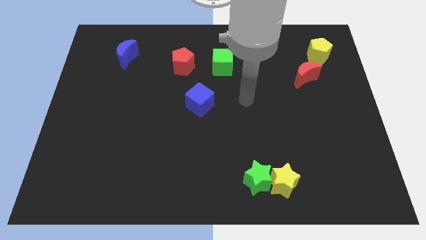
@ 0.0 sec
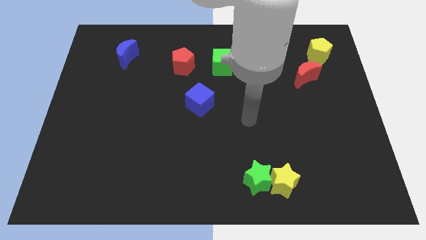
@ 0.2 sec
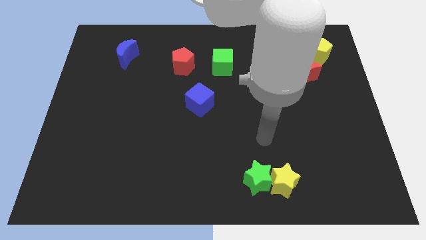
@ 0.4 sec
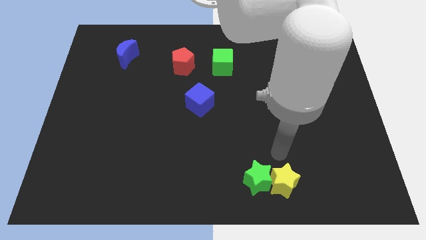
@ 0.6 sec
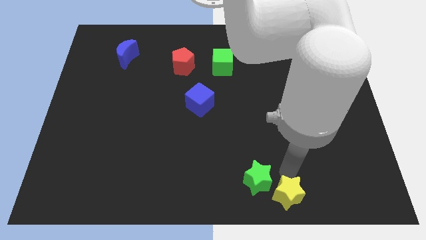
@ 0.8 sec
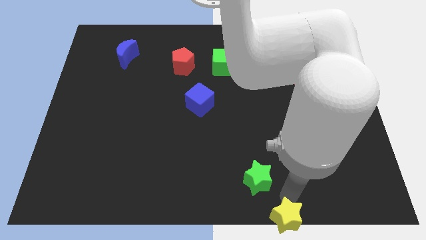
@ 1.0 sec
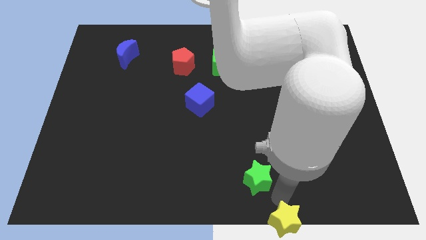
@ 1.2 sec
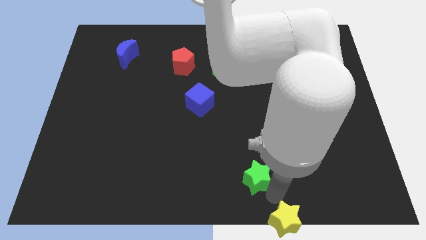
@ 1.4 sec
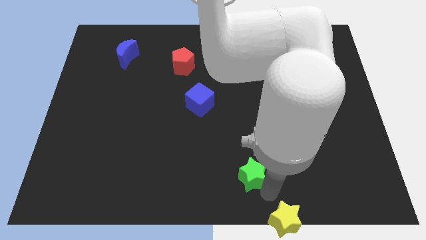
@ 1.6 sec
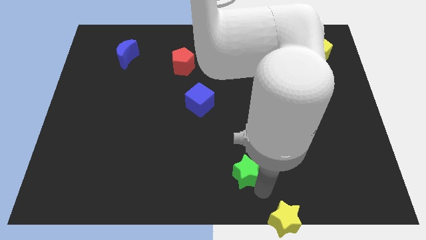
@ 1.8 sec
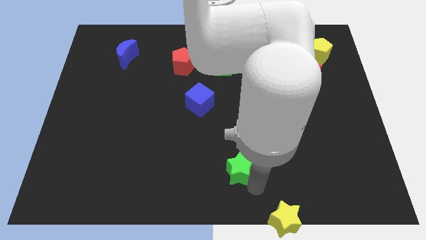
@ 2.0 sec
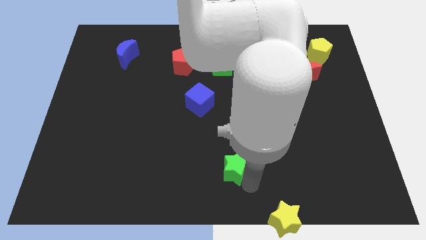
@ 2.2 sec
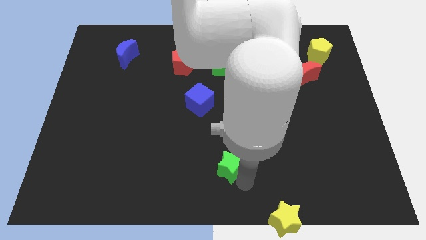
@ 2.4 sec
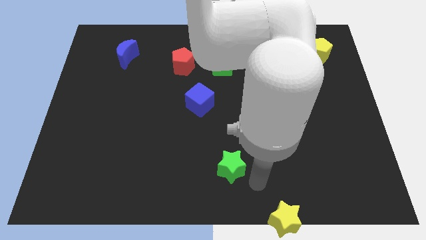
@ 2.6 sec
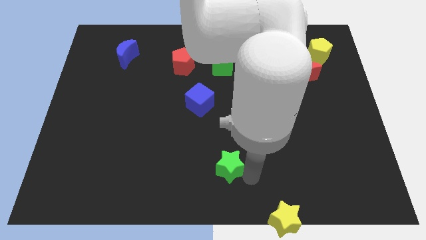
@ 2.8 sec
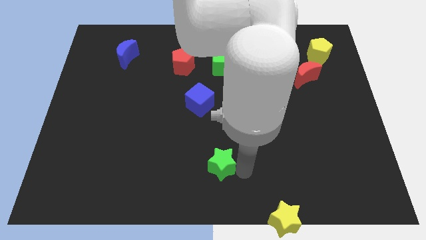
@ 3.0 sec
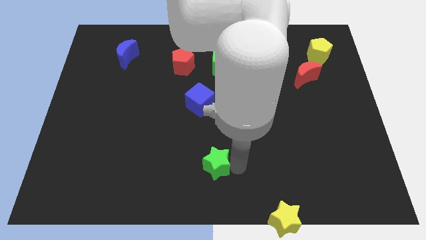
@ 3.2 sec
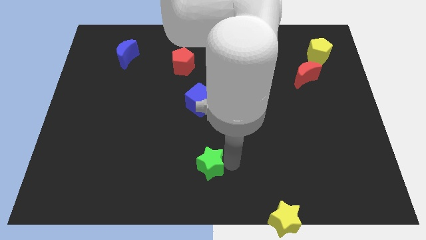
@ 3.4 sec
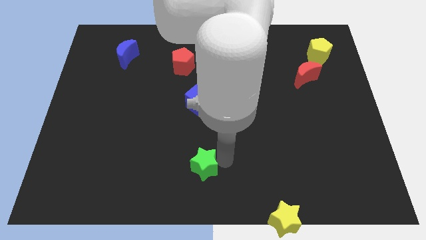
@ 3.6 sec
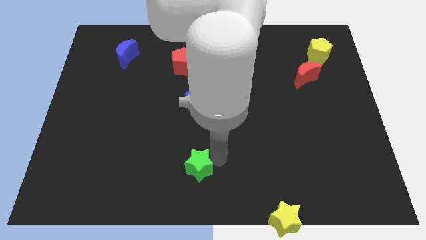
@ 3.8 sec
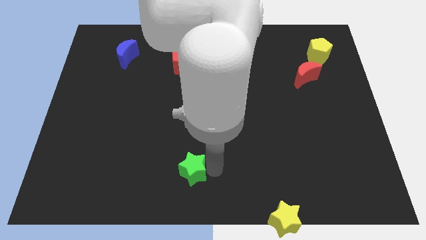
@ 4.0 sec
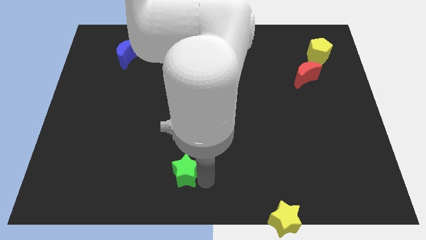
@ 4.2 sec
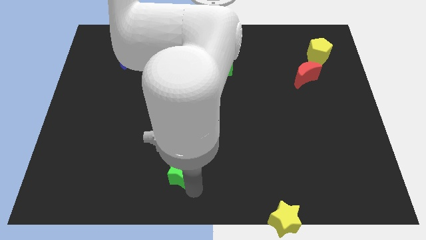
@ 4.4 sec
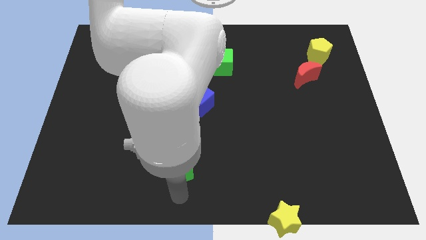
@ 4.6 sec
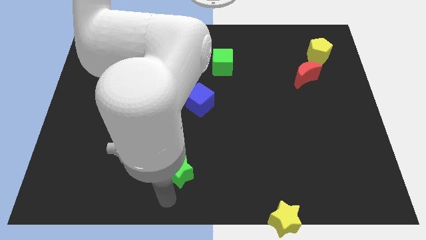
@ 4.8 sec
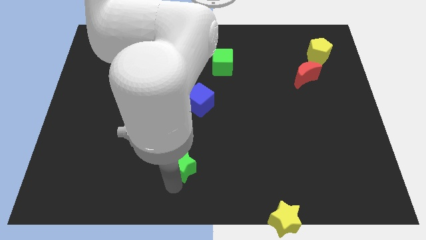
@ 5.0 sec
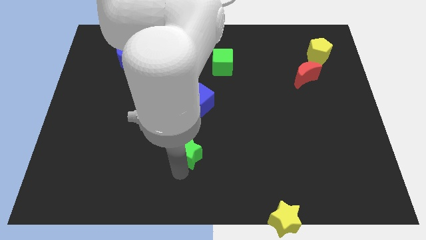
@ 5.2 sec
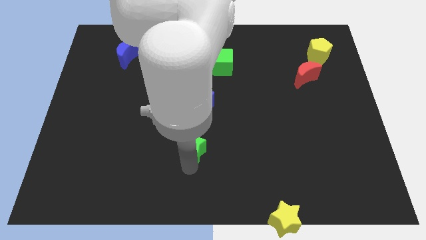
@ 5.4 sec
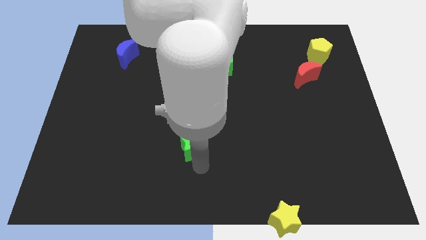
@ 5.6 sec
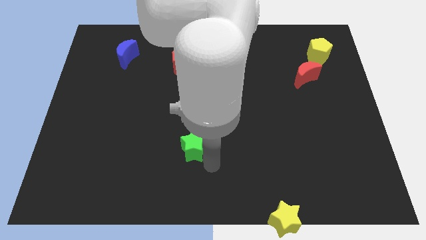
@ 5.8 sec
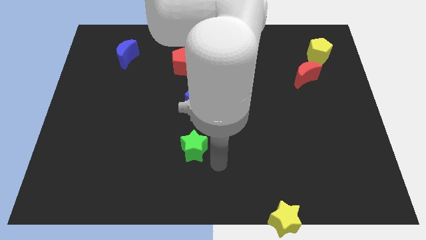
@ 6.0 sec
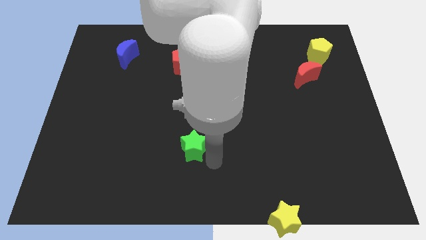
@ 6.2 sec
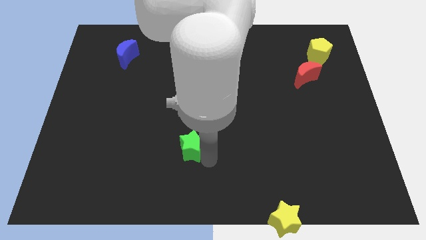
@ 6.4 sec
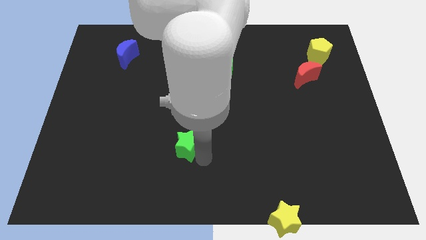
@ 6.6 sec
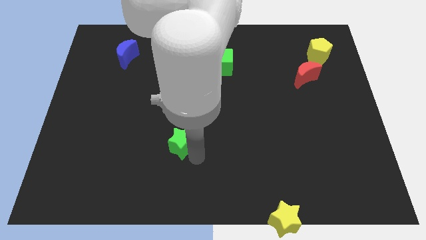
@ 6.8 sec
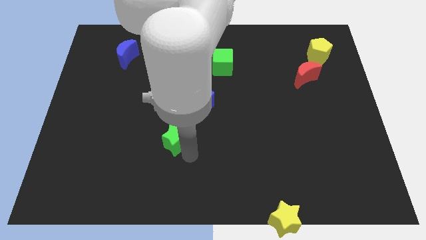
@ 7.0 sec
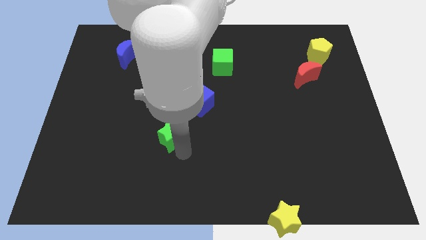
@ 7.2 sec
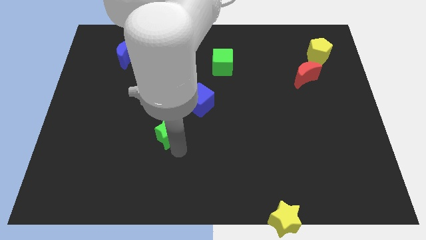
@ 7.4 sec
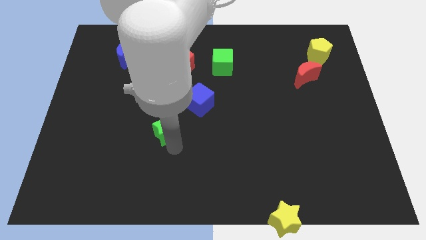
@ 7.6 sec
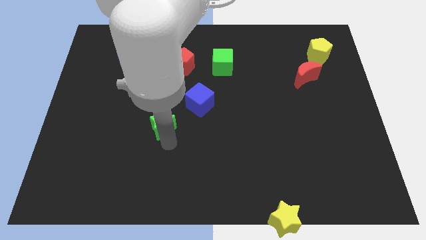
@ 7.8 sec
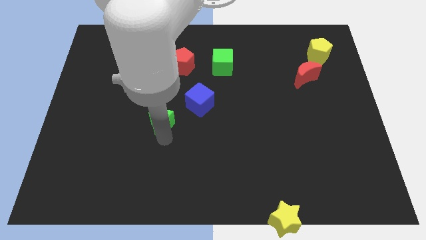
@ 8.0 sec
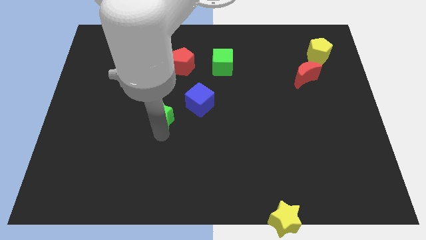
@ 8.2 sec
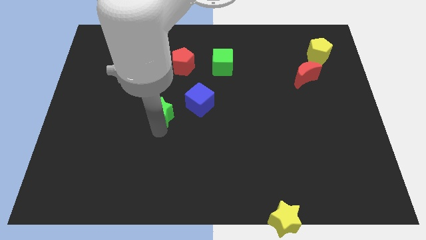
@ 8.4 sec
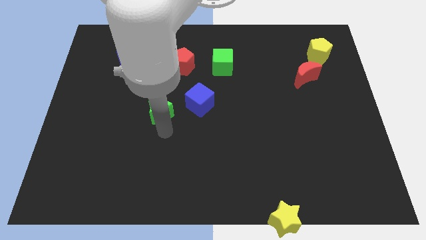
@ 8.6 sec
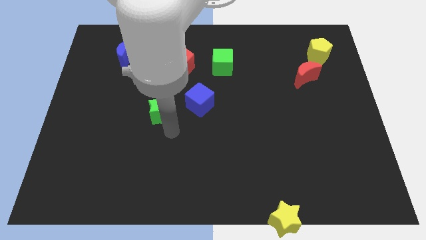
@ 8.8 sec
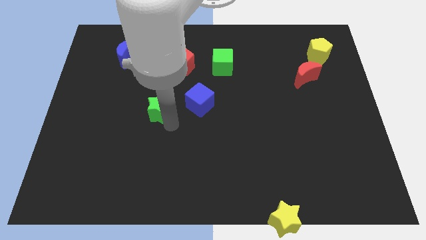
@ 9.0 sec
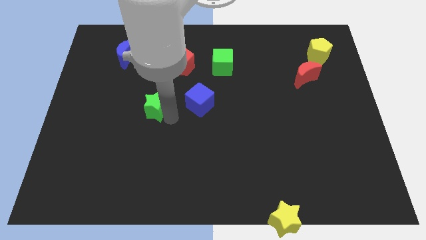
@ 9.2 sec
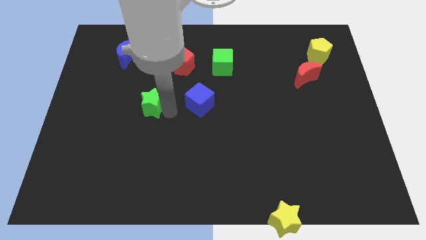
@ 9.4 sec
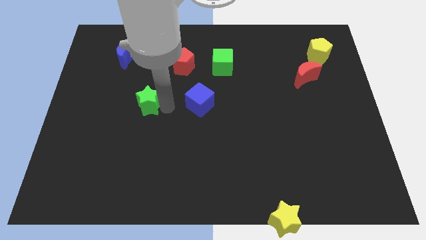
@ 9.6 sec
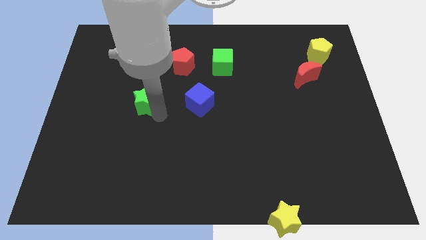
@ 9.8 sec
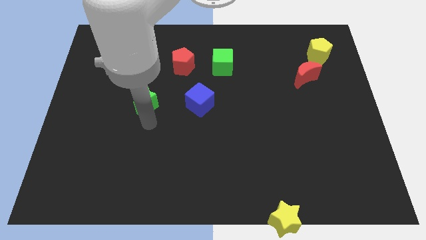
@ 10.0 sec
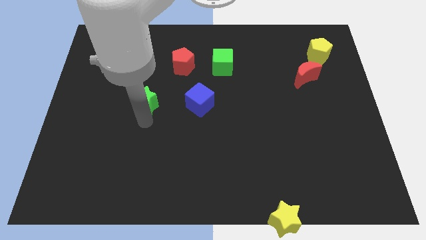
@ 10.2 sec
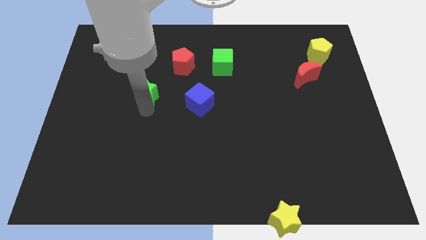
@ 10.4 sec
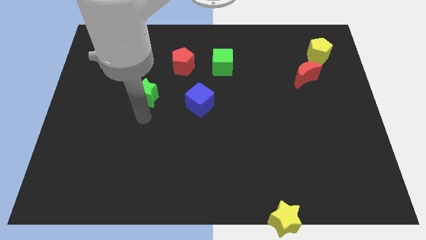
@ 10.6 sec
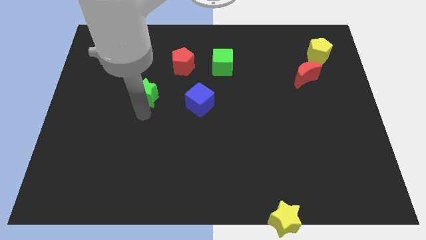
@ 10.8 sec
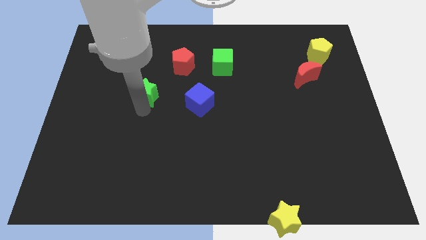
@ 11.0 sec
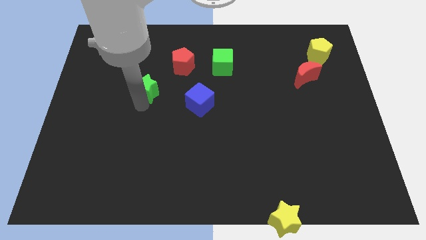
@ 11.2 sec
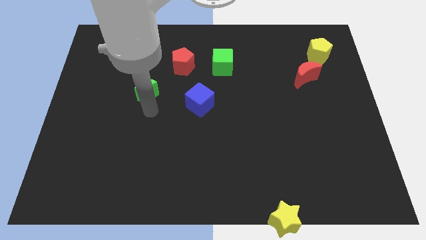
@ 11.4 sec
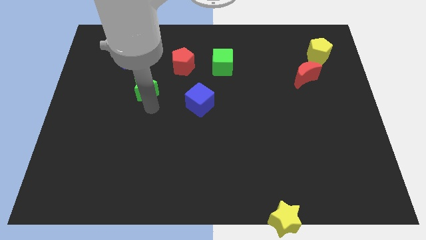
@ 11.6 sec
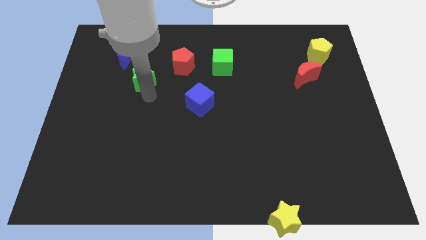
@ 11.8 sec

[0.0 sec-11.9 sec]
put the green star to the bottom right side of the blue moon

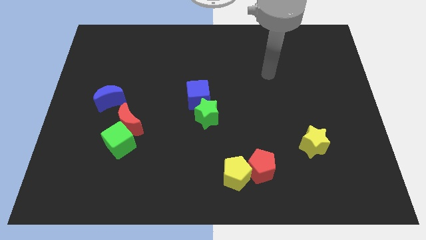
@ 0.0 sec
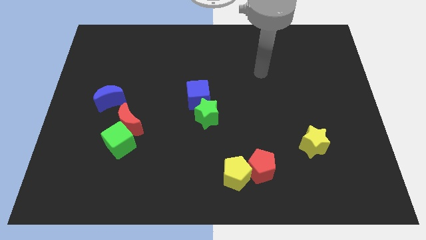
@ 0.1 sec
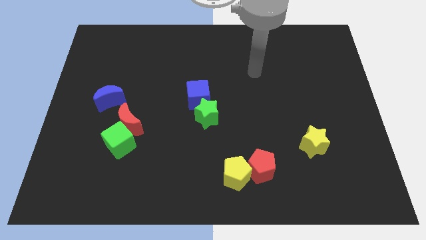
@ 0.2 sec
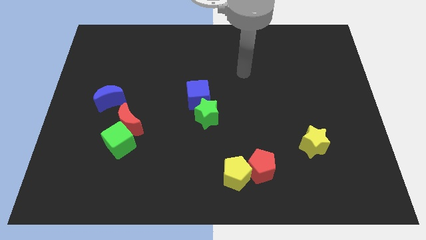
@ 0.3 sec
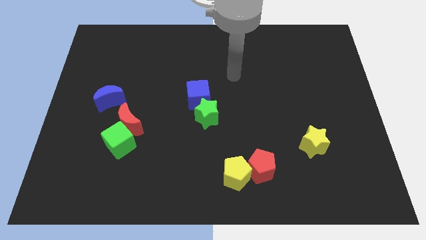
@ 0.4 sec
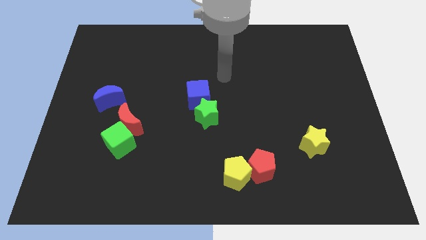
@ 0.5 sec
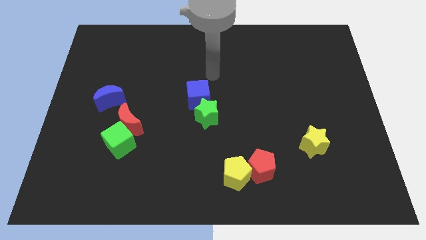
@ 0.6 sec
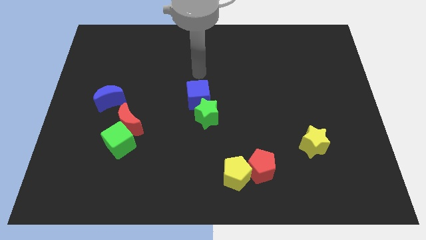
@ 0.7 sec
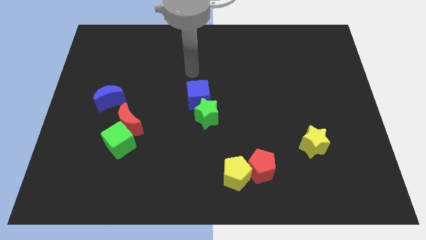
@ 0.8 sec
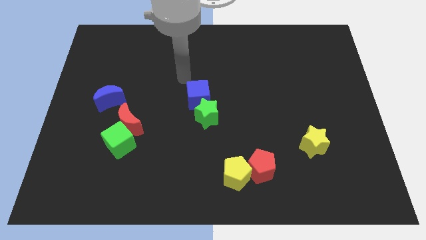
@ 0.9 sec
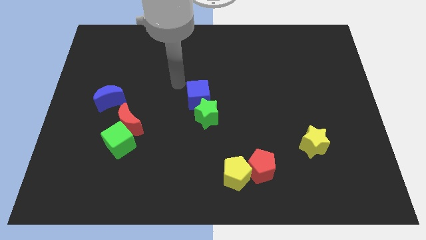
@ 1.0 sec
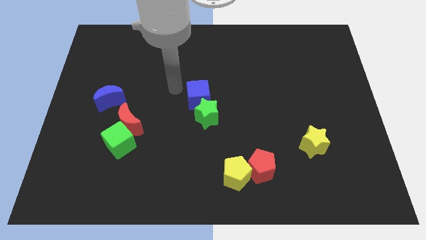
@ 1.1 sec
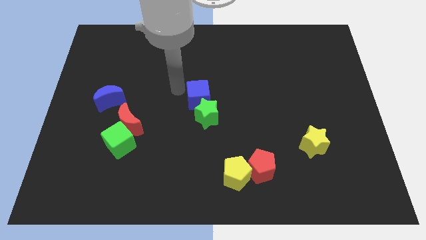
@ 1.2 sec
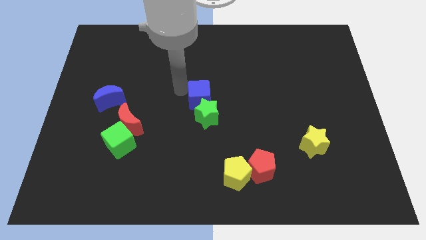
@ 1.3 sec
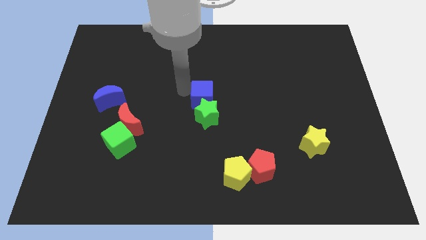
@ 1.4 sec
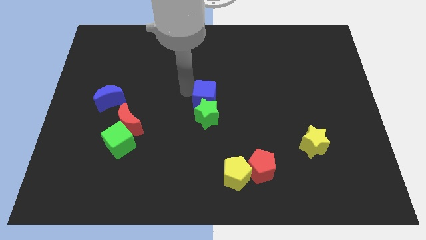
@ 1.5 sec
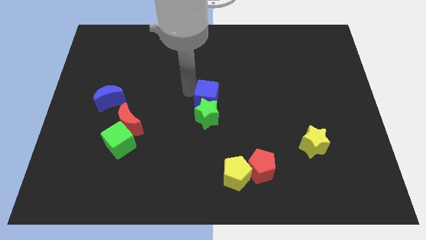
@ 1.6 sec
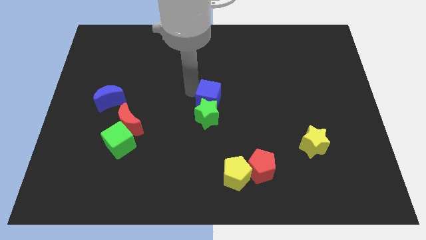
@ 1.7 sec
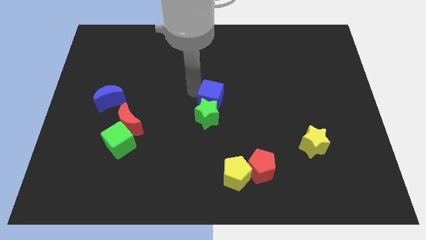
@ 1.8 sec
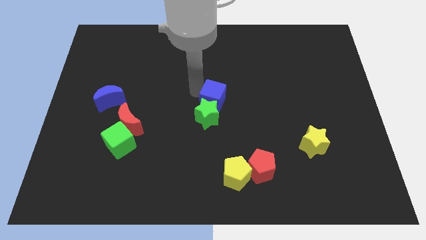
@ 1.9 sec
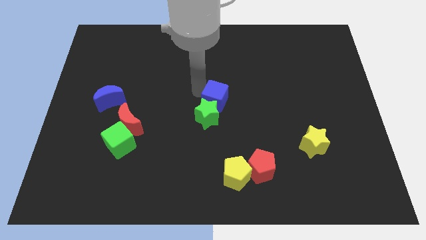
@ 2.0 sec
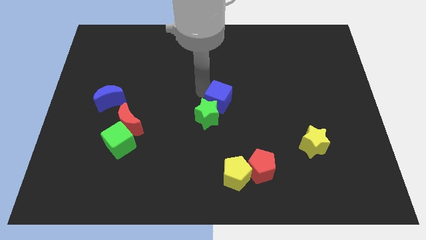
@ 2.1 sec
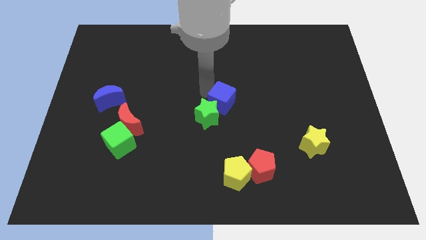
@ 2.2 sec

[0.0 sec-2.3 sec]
slide the blue cube just right of the green star
